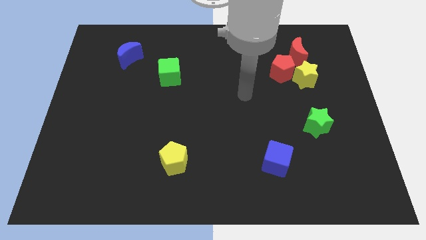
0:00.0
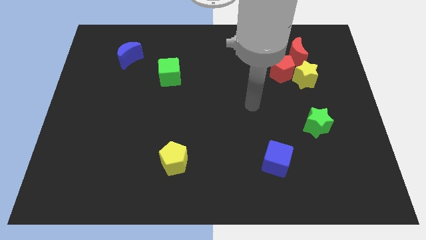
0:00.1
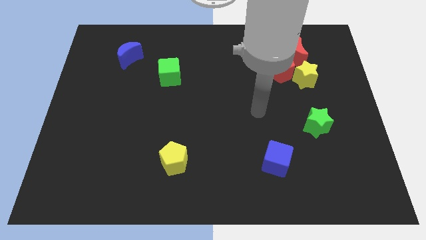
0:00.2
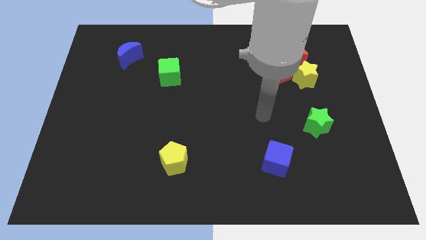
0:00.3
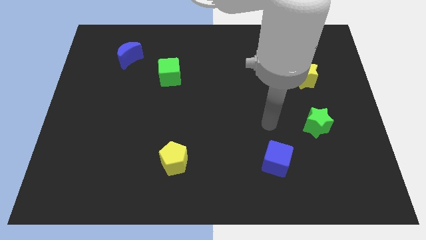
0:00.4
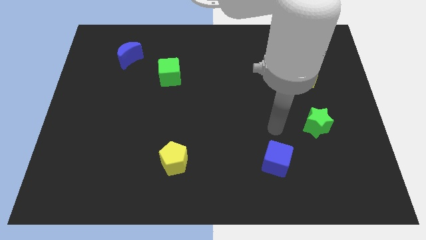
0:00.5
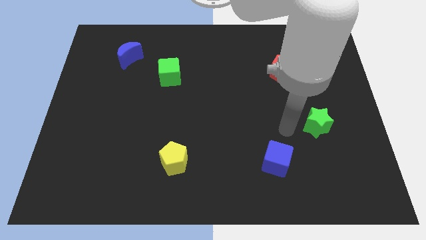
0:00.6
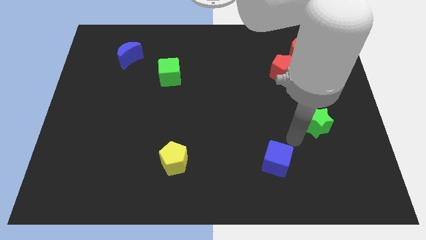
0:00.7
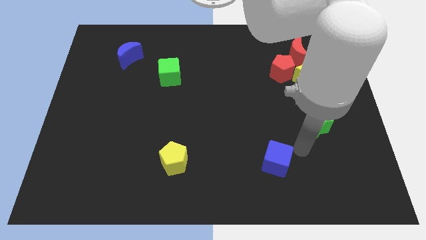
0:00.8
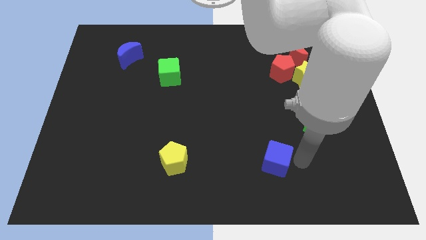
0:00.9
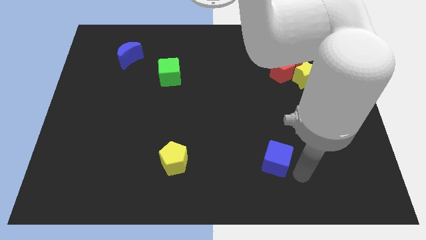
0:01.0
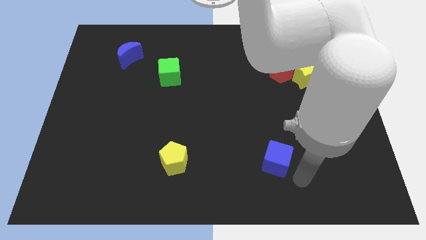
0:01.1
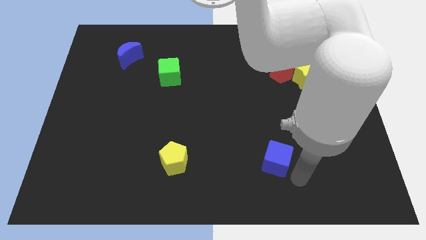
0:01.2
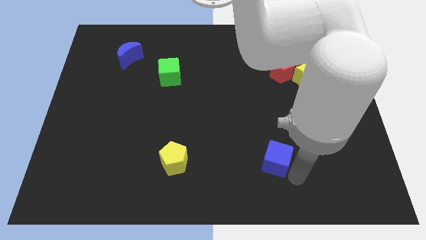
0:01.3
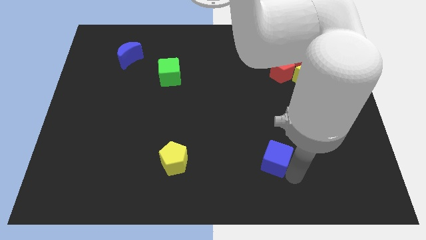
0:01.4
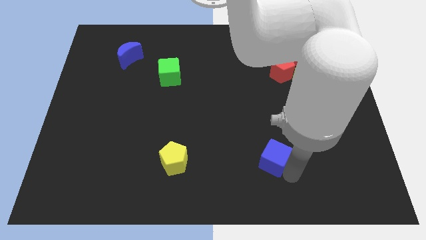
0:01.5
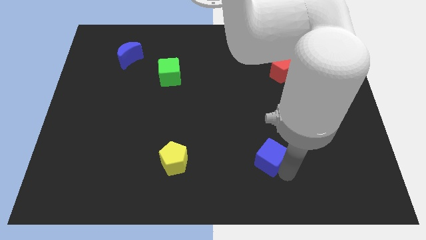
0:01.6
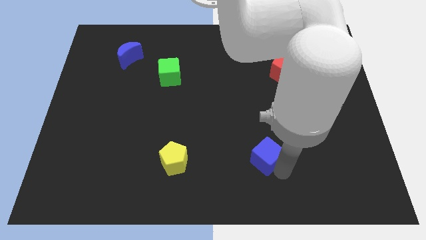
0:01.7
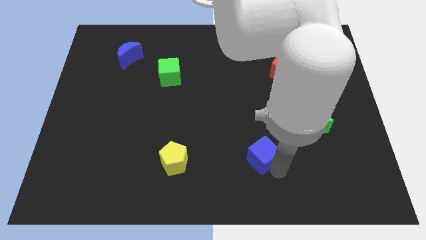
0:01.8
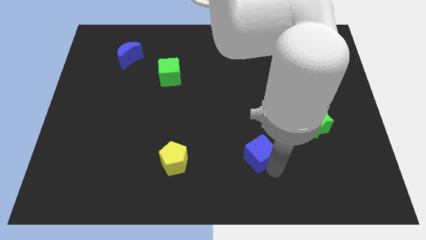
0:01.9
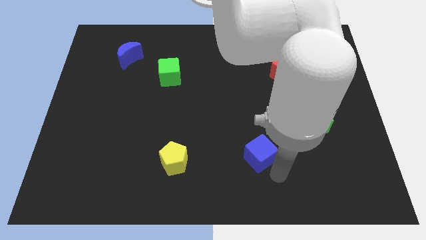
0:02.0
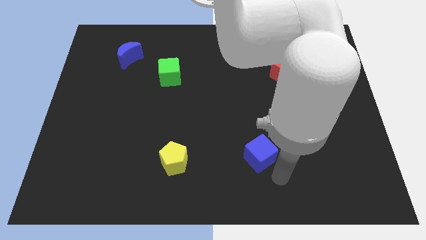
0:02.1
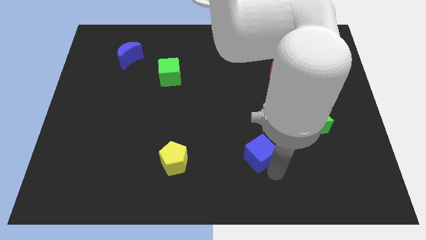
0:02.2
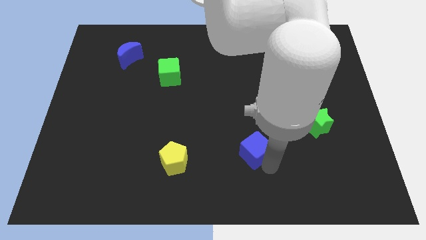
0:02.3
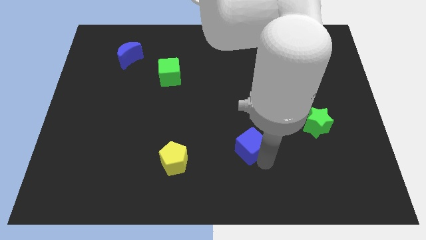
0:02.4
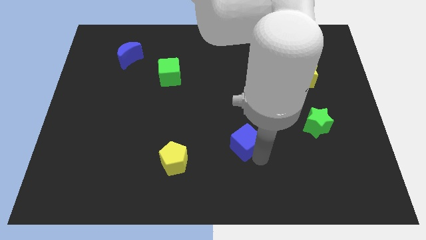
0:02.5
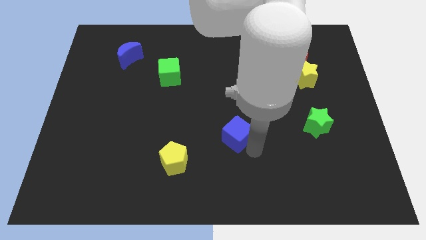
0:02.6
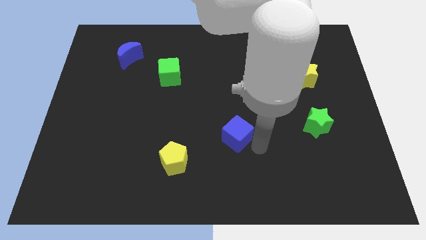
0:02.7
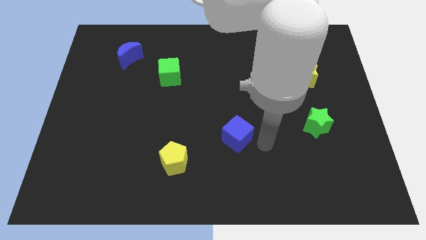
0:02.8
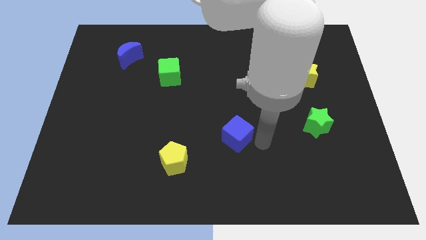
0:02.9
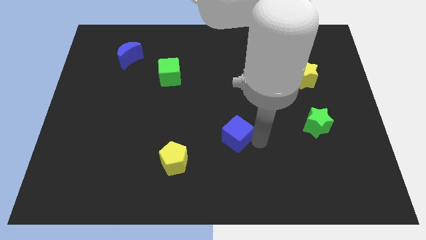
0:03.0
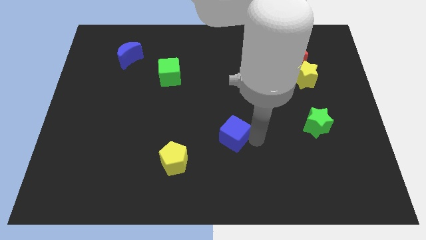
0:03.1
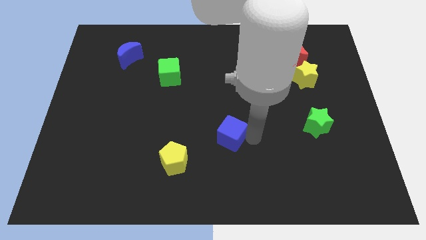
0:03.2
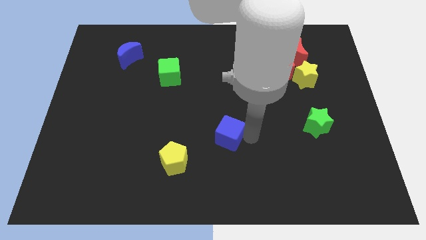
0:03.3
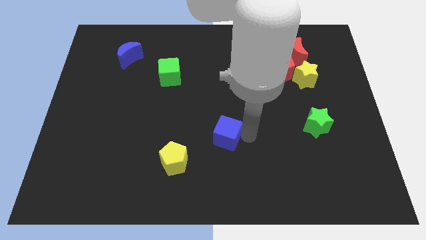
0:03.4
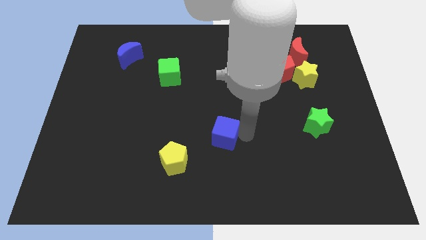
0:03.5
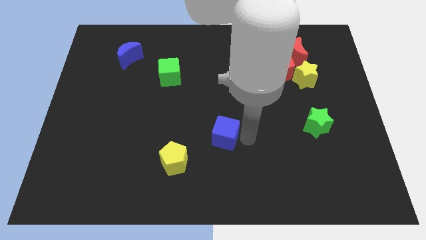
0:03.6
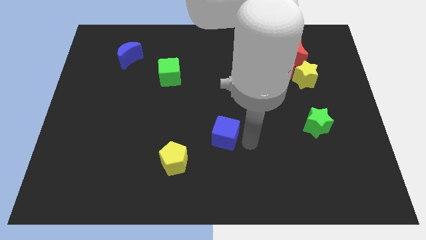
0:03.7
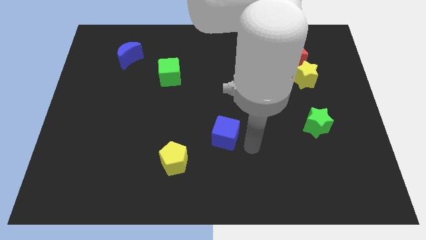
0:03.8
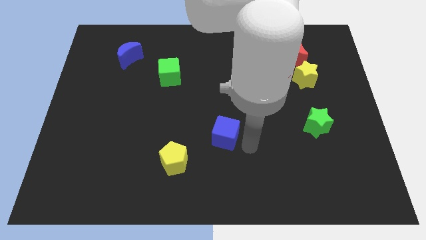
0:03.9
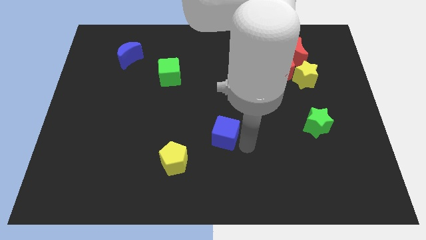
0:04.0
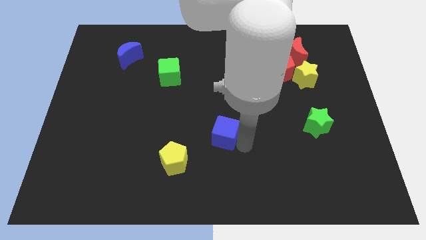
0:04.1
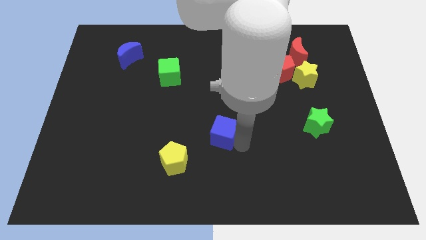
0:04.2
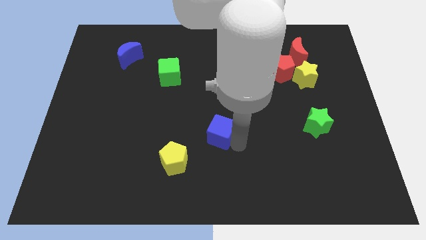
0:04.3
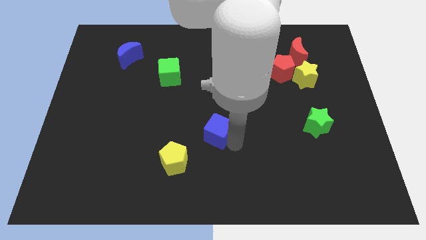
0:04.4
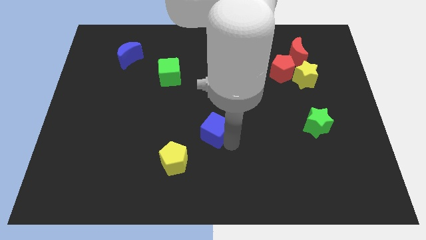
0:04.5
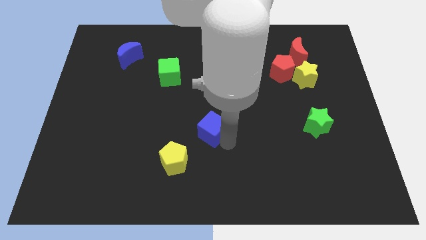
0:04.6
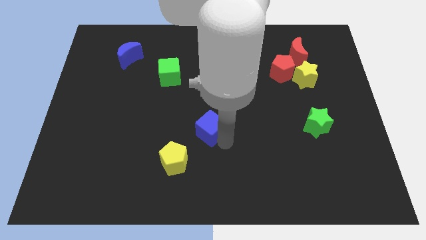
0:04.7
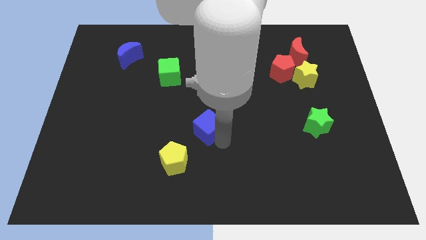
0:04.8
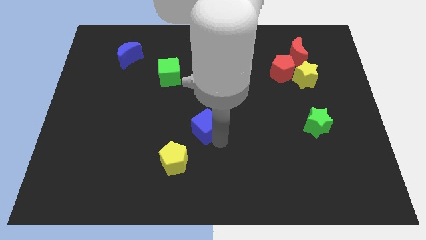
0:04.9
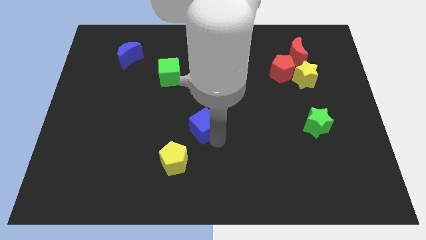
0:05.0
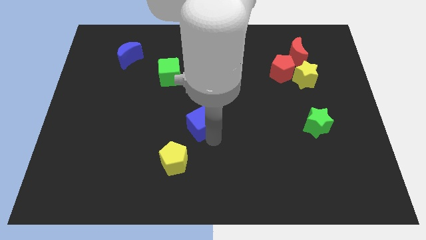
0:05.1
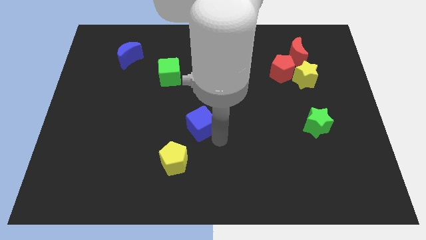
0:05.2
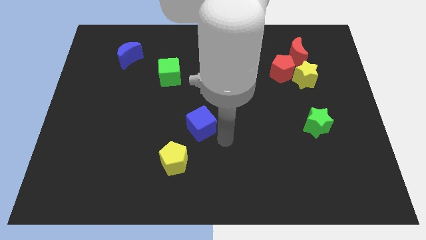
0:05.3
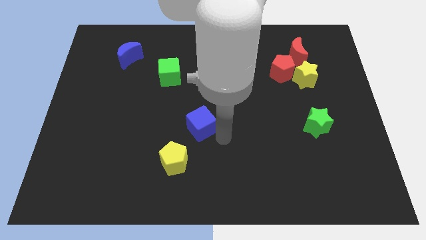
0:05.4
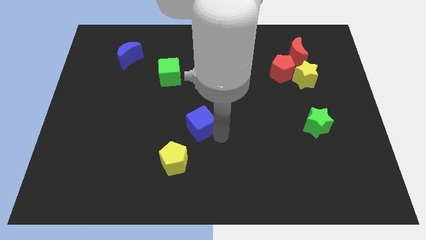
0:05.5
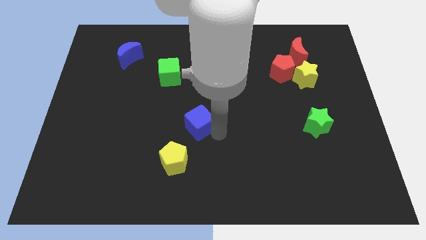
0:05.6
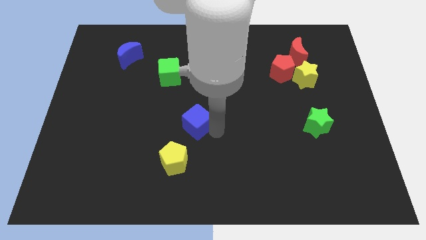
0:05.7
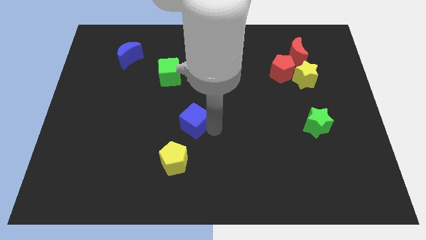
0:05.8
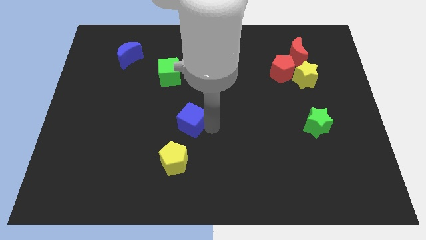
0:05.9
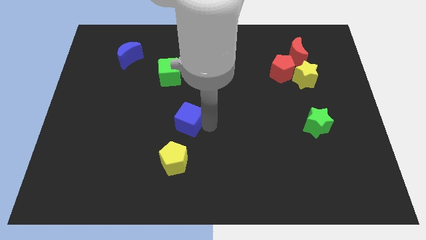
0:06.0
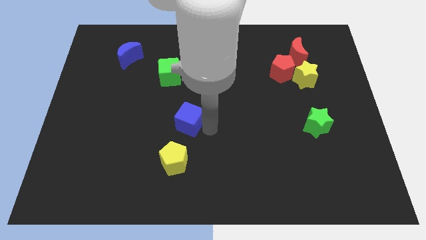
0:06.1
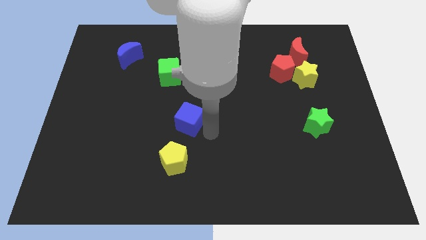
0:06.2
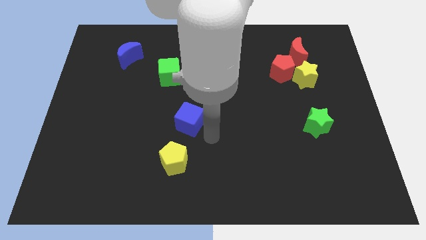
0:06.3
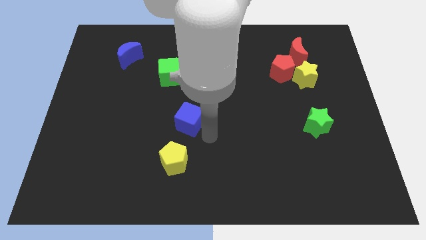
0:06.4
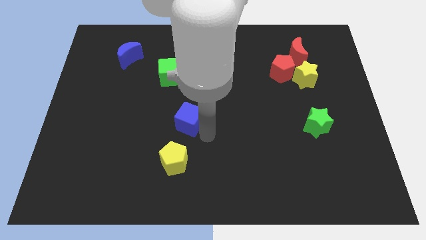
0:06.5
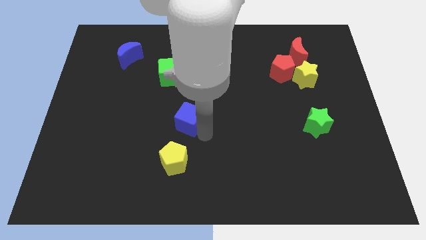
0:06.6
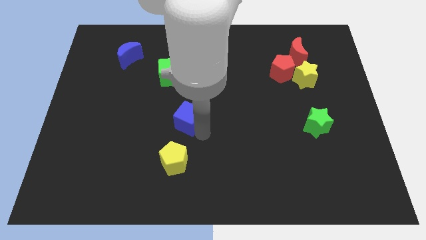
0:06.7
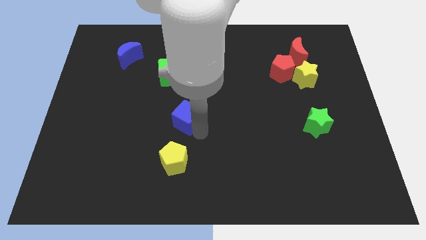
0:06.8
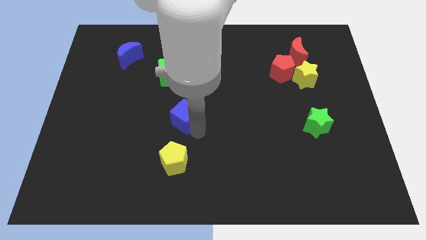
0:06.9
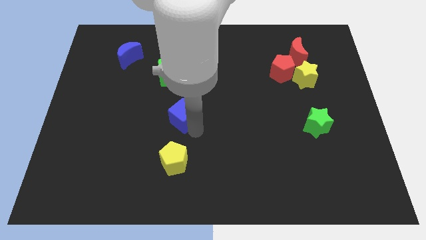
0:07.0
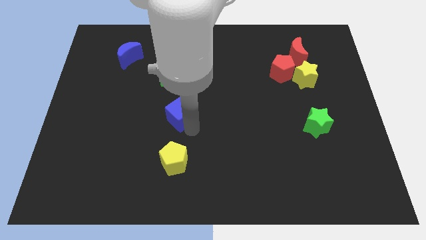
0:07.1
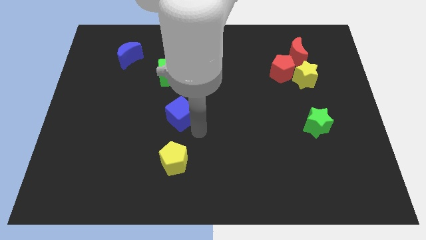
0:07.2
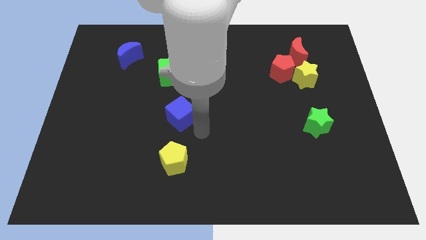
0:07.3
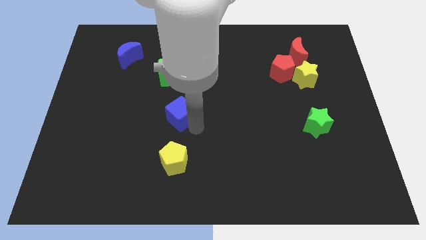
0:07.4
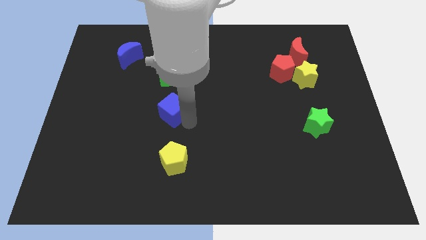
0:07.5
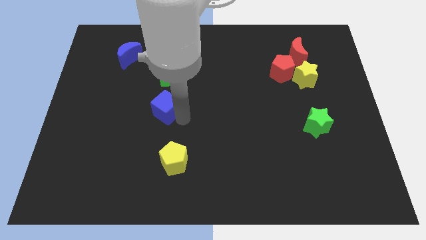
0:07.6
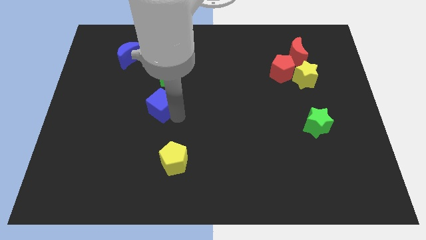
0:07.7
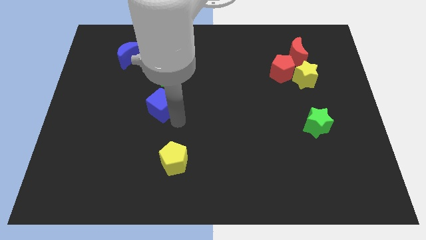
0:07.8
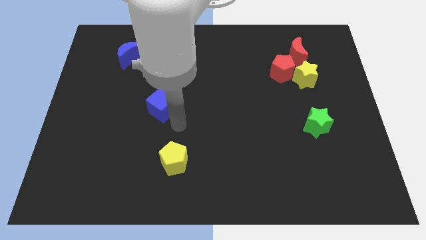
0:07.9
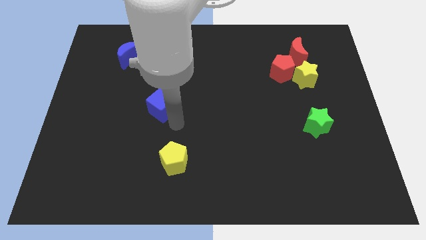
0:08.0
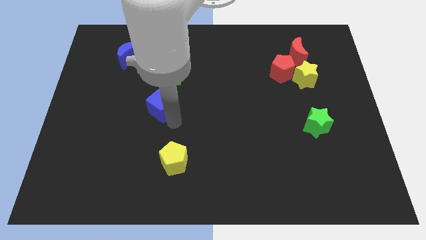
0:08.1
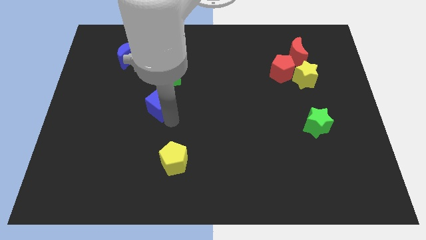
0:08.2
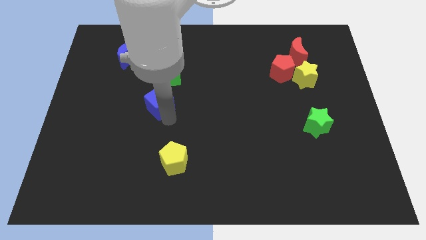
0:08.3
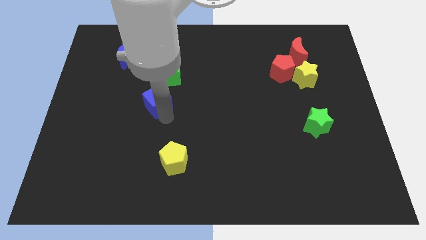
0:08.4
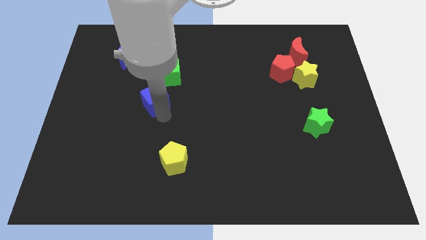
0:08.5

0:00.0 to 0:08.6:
move the blue cube diagonally down and to the left of the green cube
